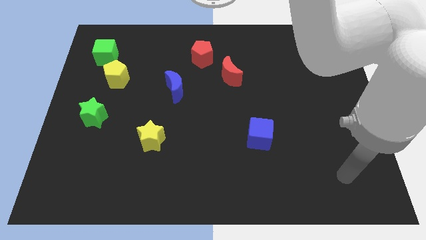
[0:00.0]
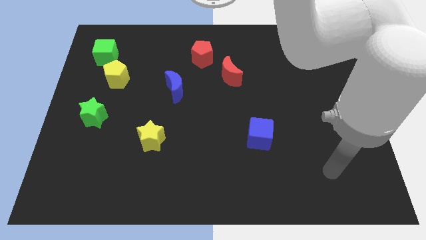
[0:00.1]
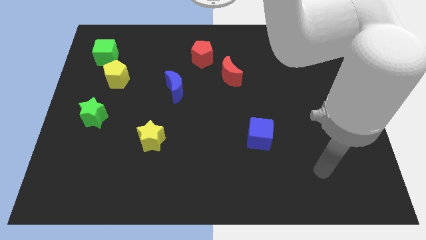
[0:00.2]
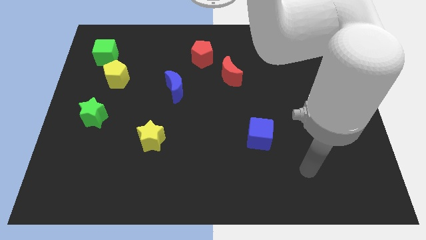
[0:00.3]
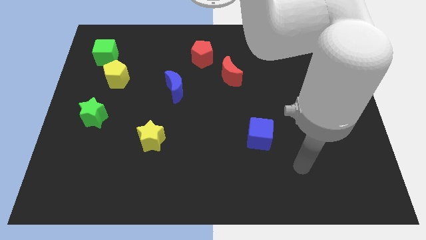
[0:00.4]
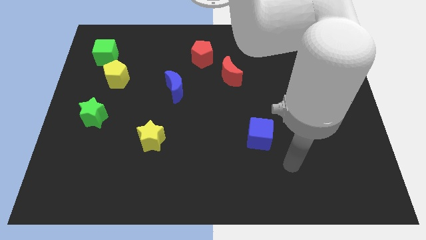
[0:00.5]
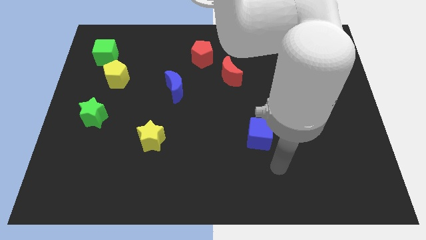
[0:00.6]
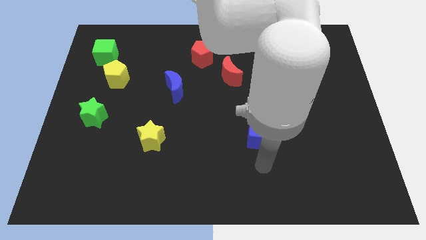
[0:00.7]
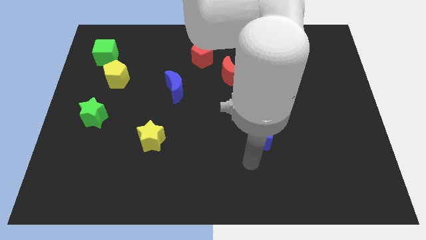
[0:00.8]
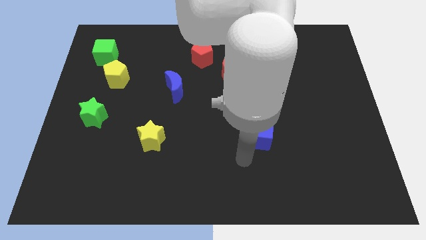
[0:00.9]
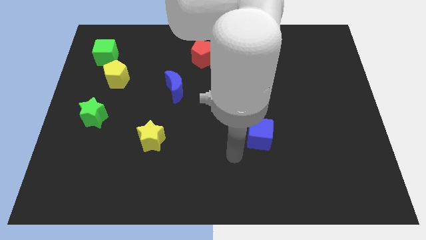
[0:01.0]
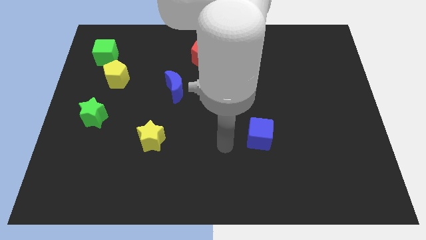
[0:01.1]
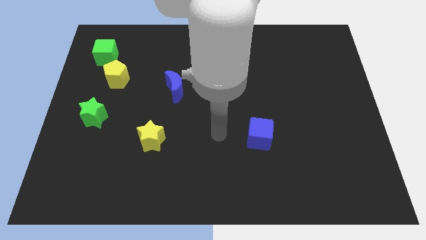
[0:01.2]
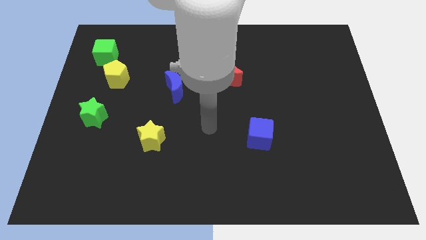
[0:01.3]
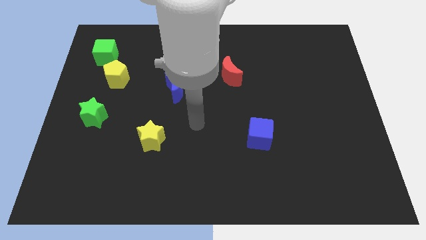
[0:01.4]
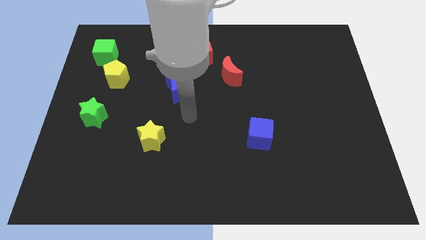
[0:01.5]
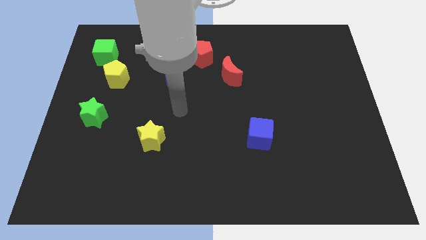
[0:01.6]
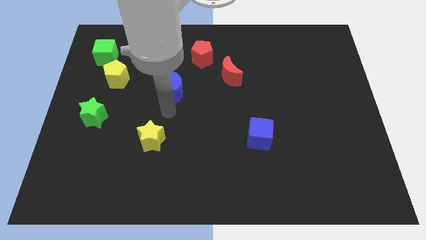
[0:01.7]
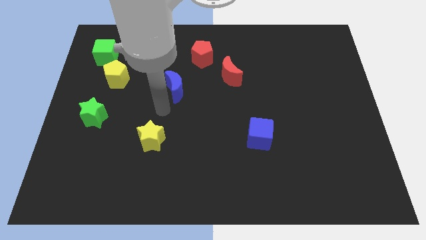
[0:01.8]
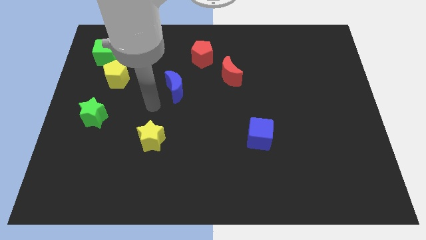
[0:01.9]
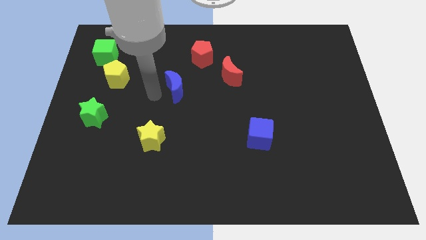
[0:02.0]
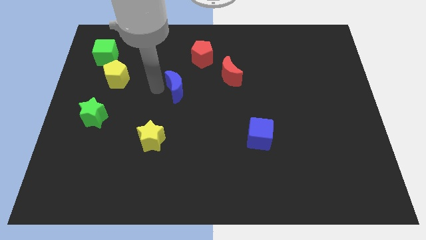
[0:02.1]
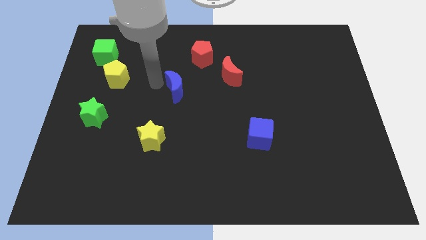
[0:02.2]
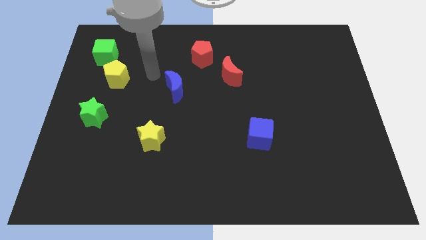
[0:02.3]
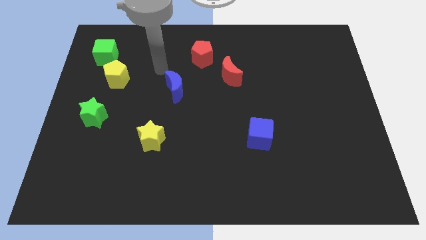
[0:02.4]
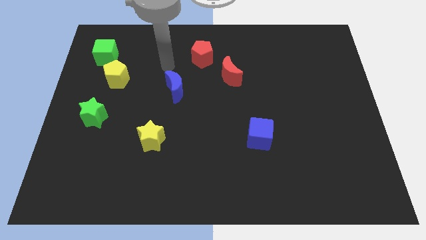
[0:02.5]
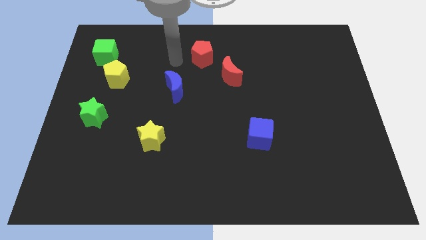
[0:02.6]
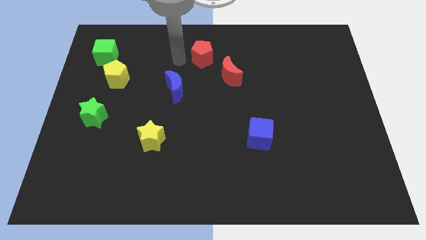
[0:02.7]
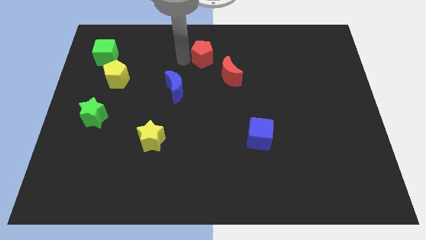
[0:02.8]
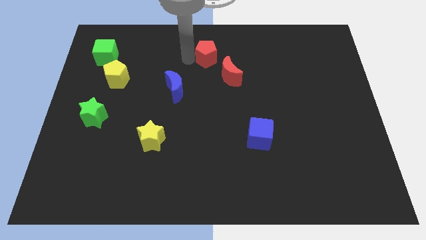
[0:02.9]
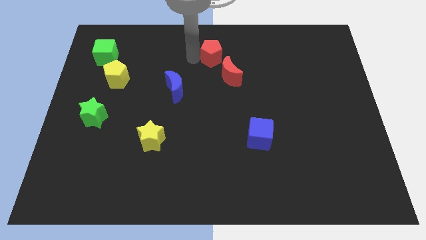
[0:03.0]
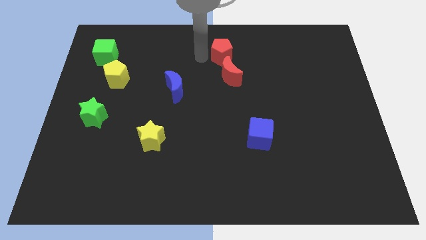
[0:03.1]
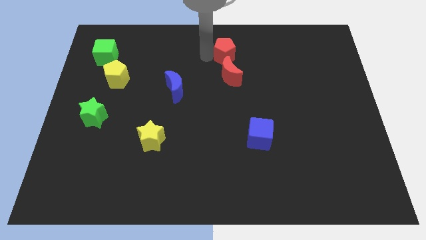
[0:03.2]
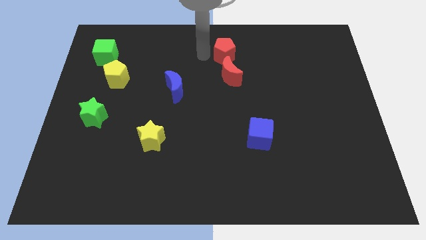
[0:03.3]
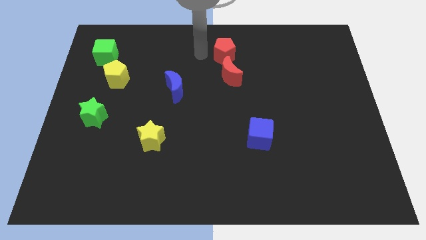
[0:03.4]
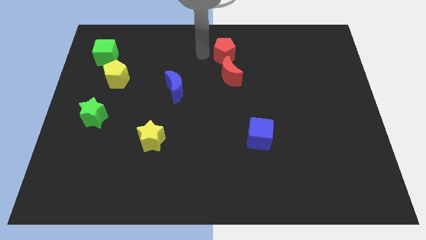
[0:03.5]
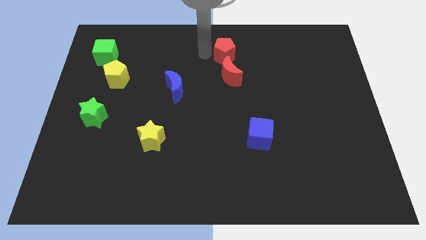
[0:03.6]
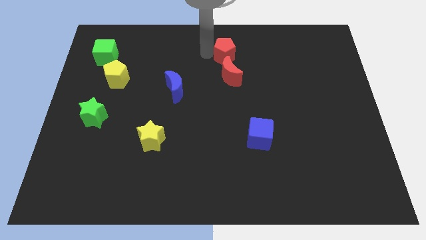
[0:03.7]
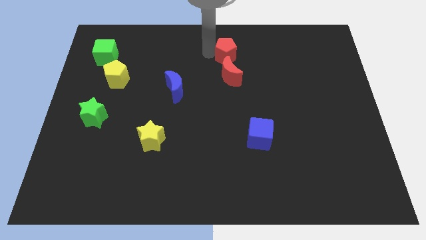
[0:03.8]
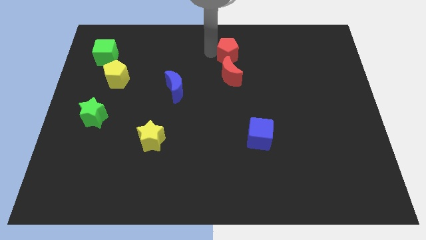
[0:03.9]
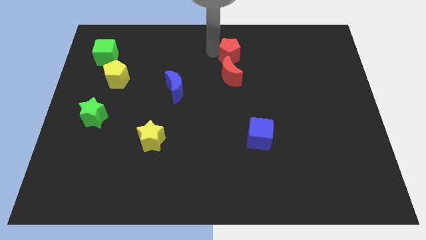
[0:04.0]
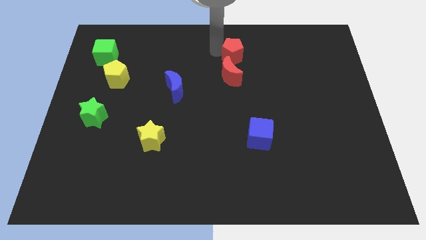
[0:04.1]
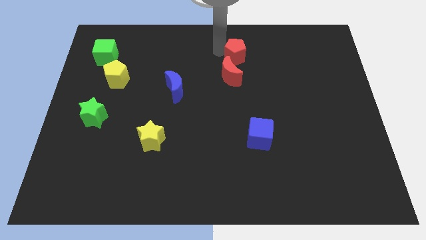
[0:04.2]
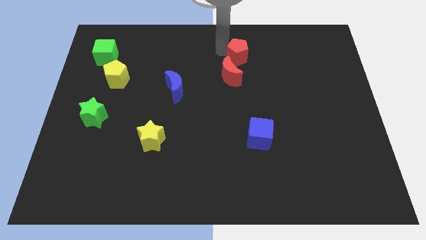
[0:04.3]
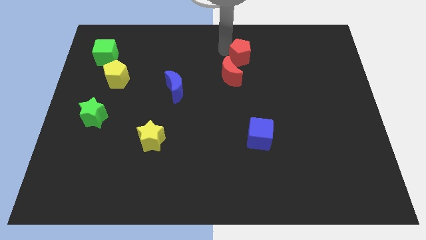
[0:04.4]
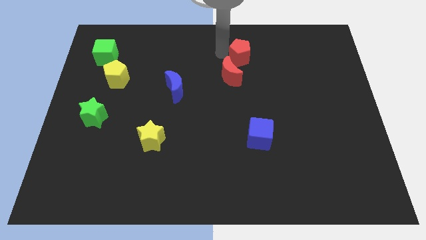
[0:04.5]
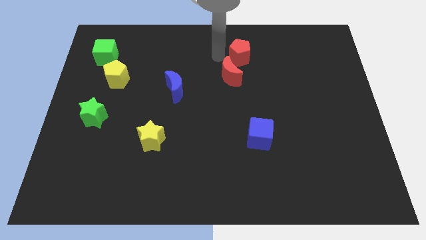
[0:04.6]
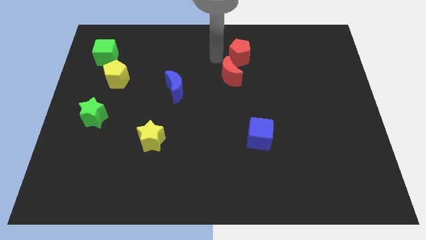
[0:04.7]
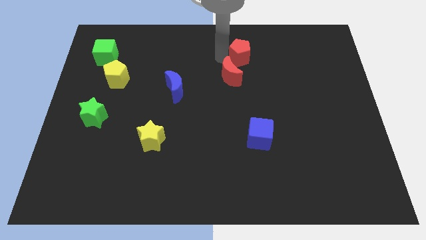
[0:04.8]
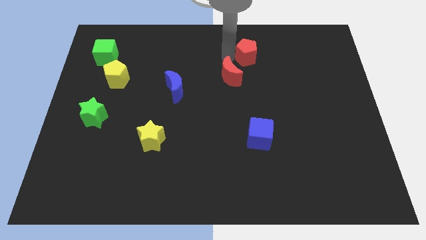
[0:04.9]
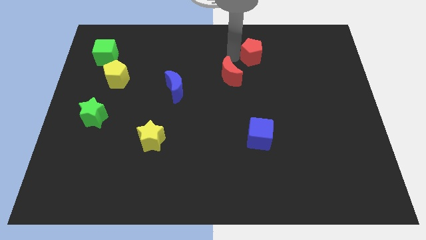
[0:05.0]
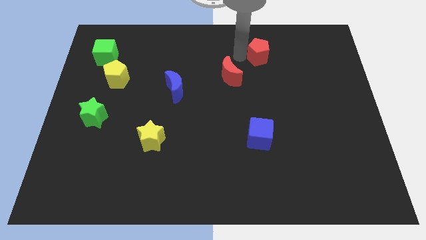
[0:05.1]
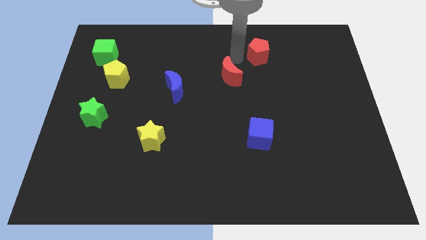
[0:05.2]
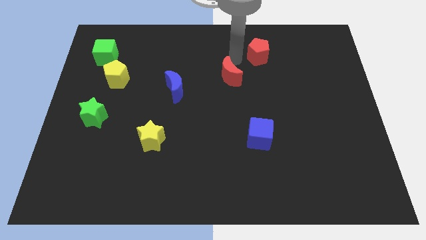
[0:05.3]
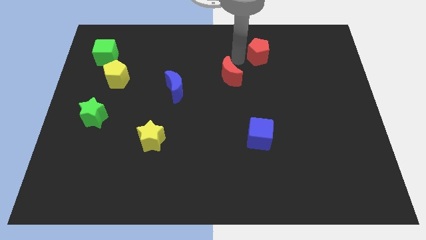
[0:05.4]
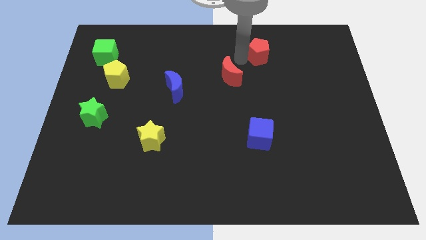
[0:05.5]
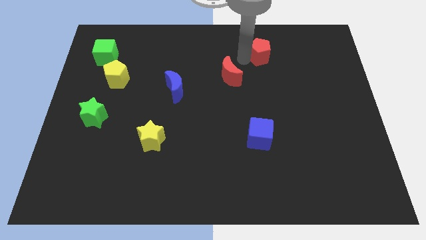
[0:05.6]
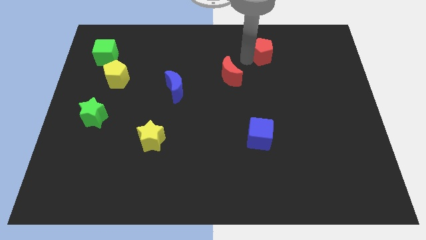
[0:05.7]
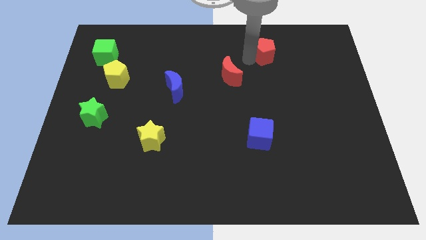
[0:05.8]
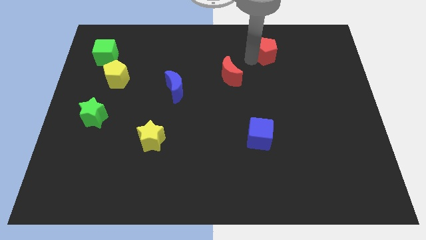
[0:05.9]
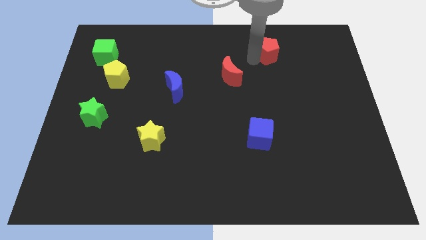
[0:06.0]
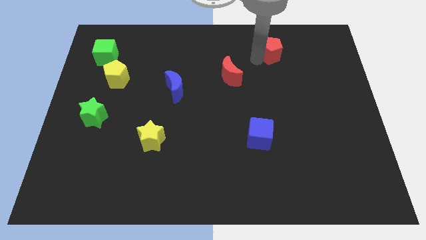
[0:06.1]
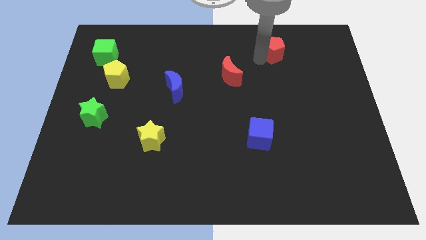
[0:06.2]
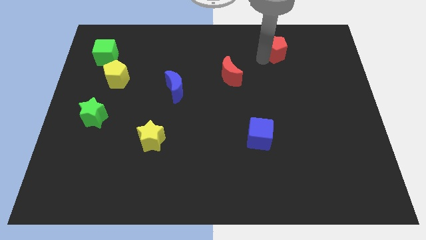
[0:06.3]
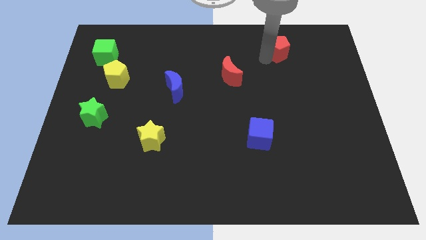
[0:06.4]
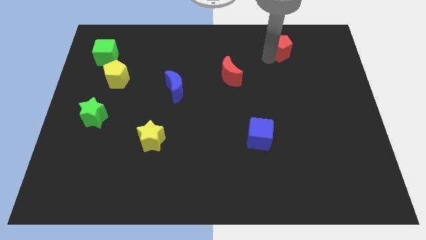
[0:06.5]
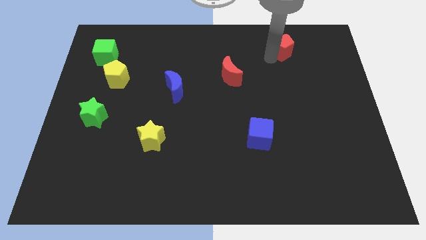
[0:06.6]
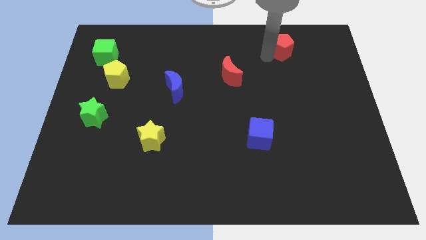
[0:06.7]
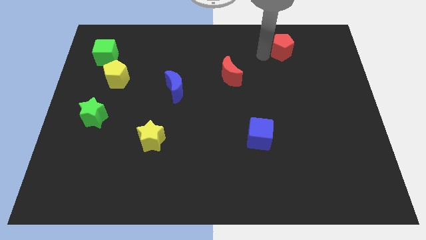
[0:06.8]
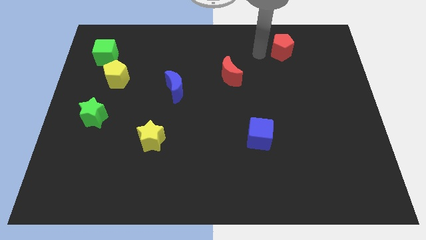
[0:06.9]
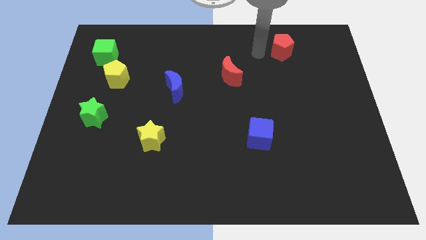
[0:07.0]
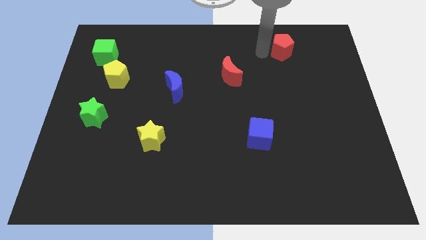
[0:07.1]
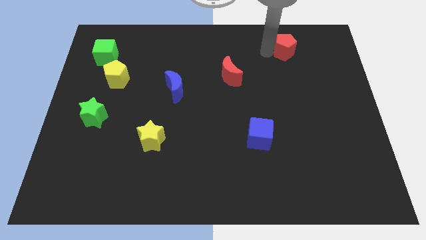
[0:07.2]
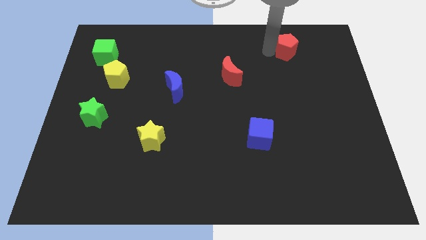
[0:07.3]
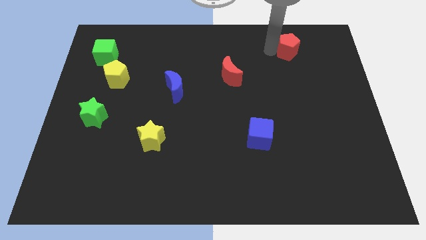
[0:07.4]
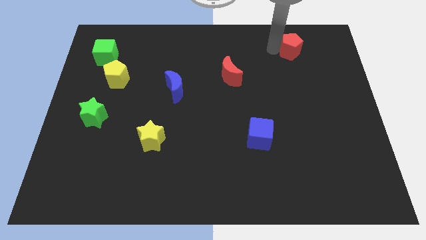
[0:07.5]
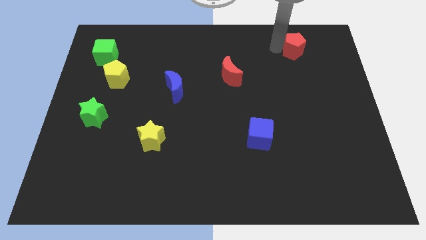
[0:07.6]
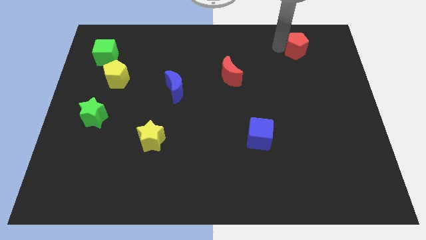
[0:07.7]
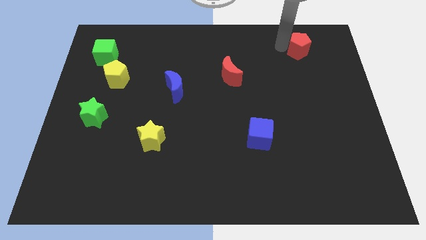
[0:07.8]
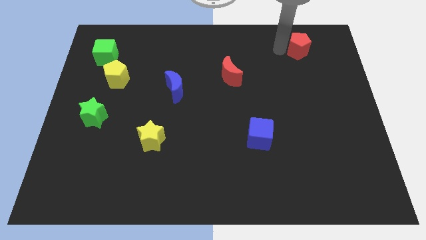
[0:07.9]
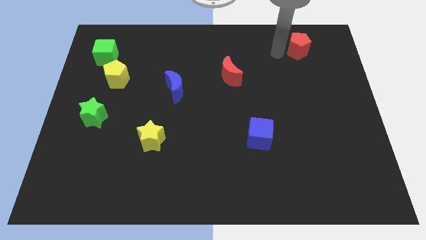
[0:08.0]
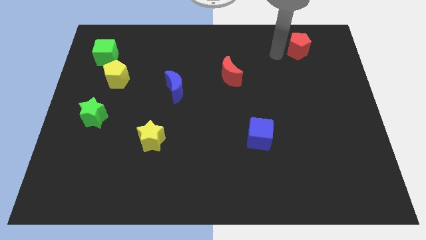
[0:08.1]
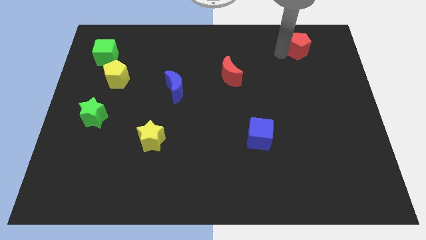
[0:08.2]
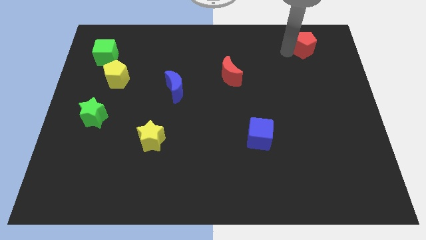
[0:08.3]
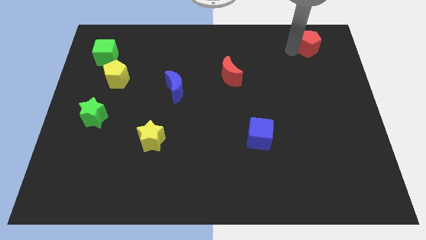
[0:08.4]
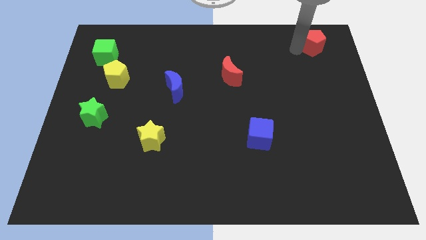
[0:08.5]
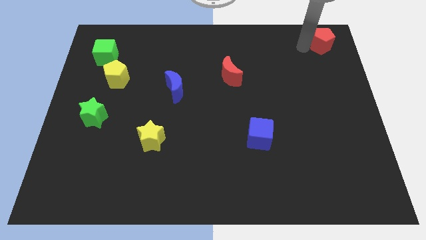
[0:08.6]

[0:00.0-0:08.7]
move the red pentagon to the upper right corner
